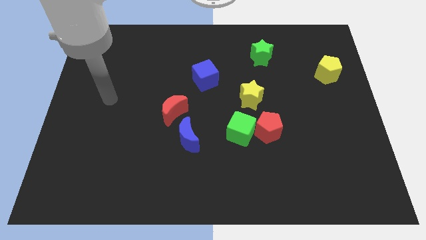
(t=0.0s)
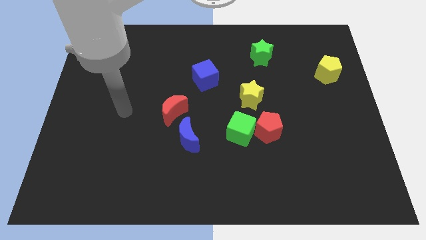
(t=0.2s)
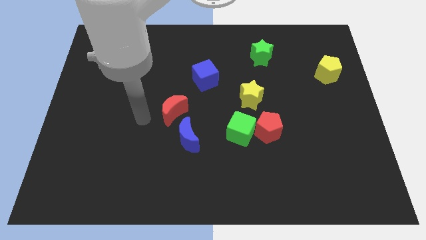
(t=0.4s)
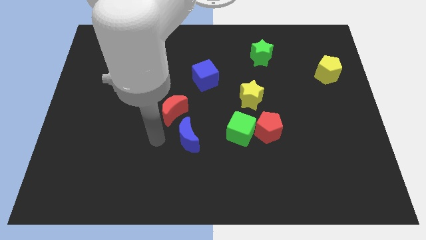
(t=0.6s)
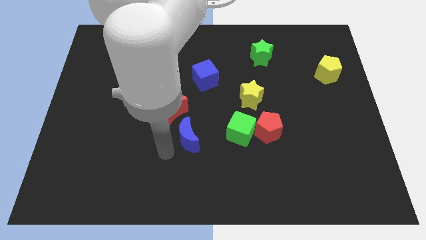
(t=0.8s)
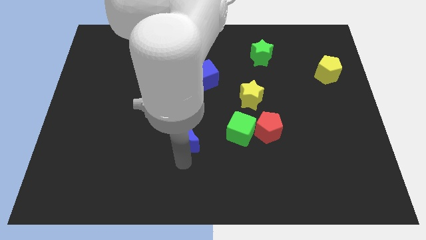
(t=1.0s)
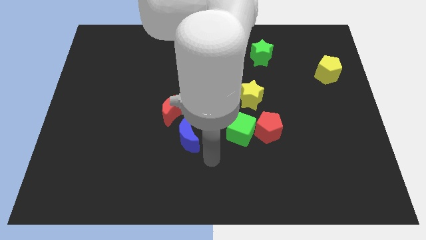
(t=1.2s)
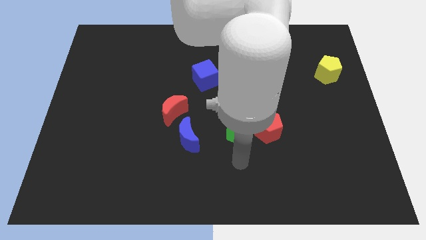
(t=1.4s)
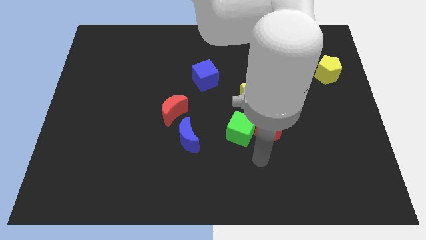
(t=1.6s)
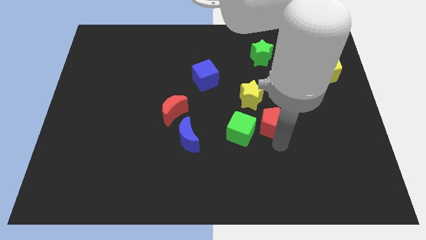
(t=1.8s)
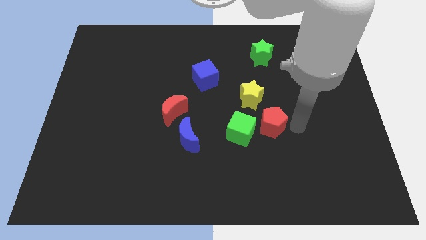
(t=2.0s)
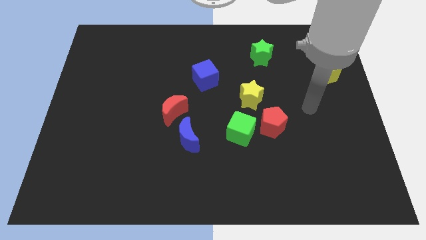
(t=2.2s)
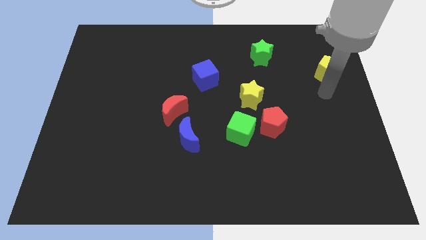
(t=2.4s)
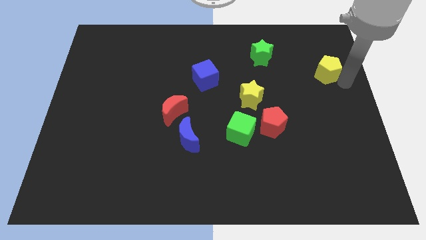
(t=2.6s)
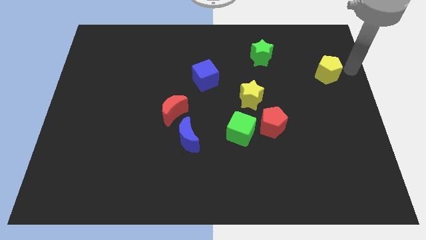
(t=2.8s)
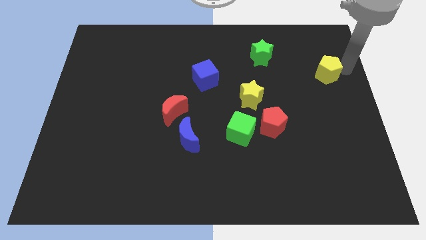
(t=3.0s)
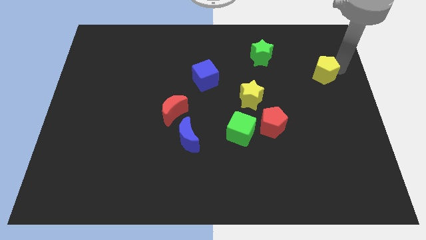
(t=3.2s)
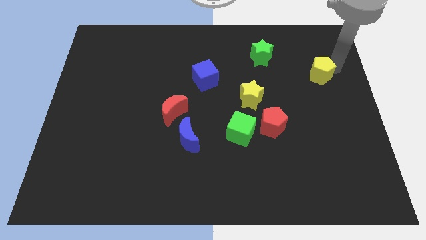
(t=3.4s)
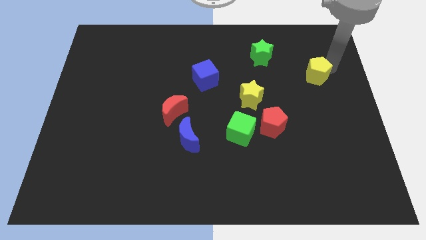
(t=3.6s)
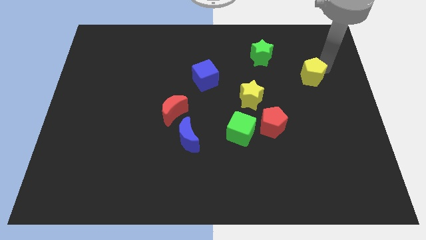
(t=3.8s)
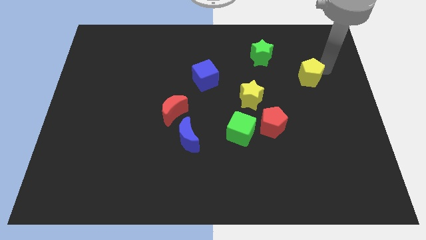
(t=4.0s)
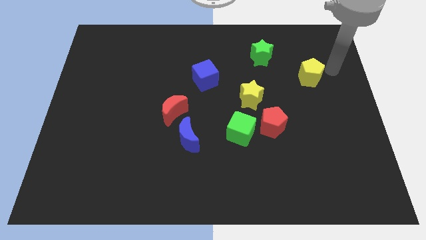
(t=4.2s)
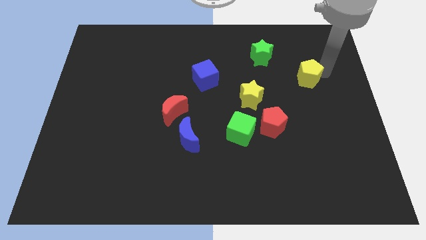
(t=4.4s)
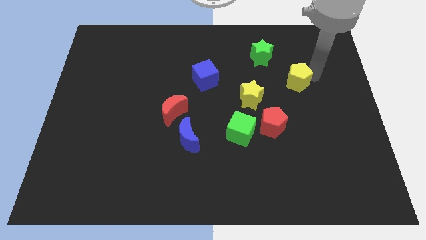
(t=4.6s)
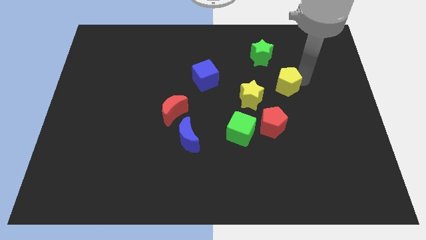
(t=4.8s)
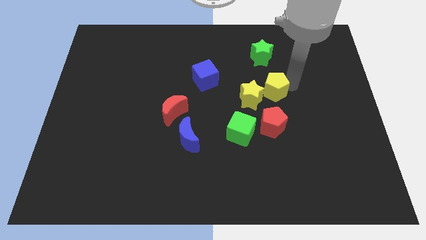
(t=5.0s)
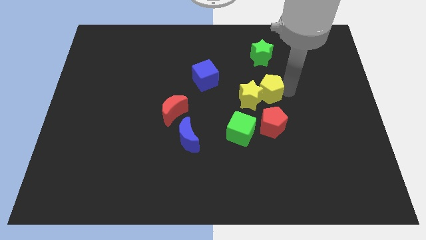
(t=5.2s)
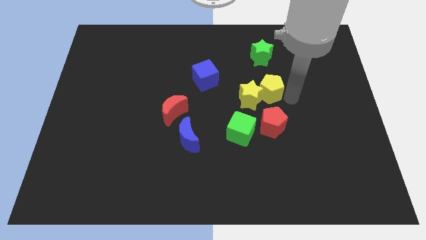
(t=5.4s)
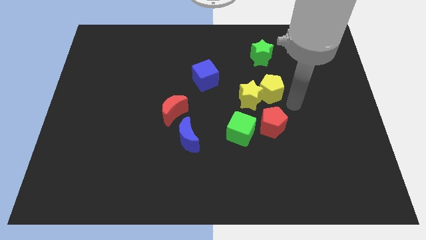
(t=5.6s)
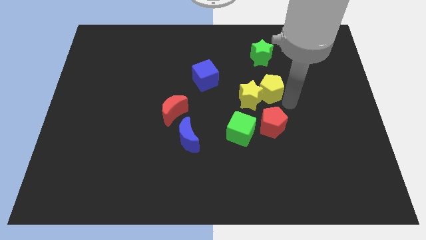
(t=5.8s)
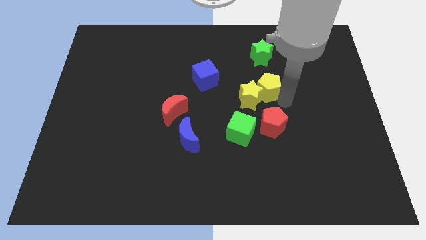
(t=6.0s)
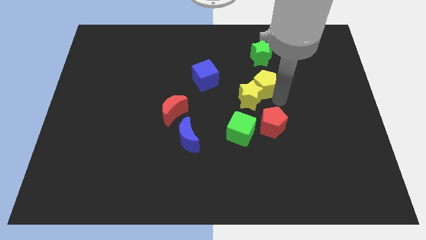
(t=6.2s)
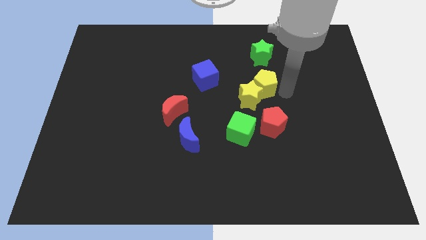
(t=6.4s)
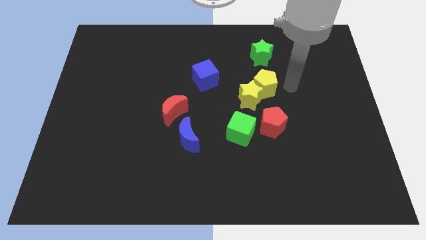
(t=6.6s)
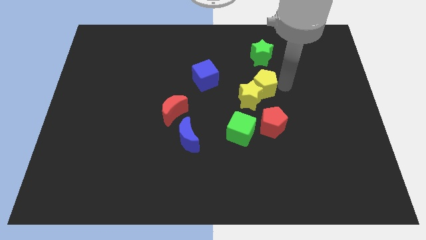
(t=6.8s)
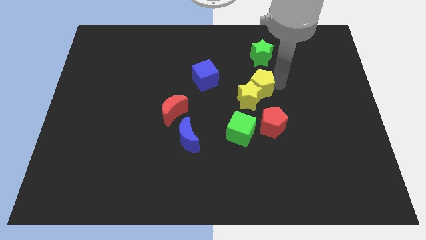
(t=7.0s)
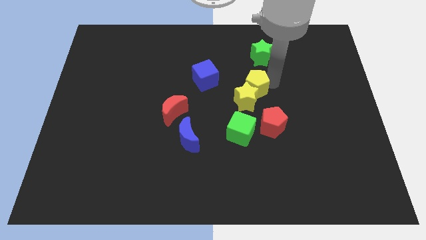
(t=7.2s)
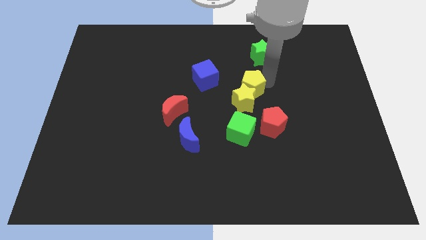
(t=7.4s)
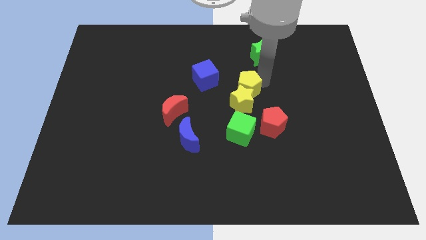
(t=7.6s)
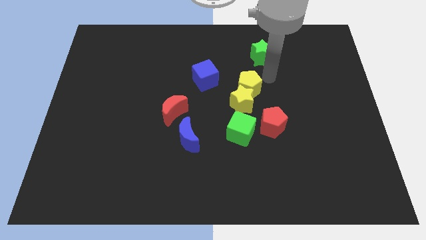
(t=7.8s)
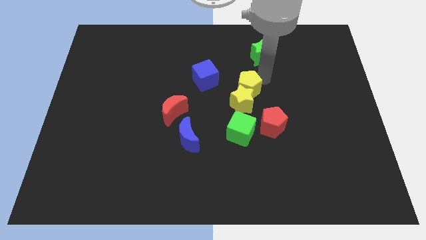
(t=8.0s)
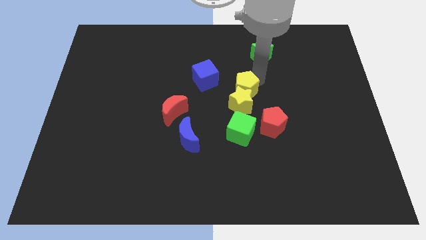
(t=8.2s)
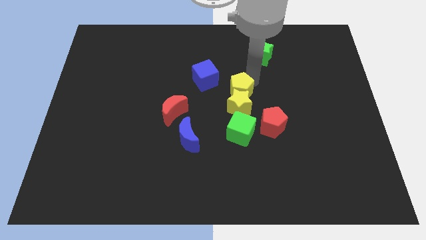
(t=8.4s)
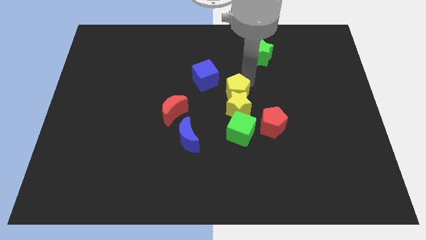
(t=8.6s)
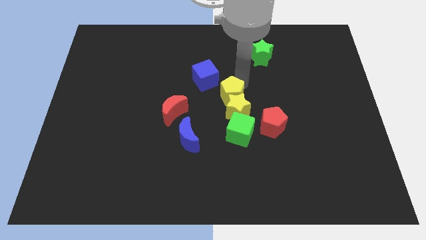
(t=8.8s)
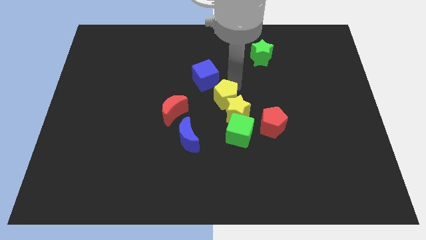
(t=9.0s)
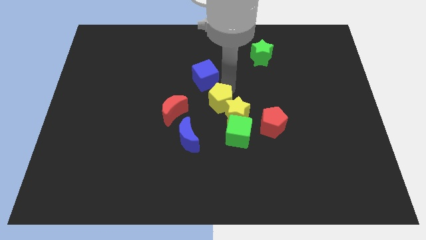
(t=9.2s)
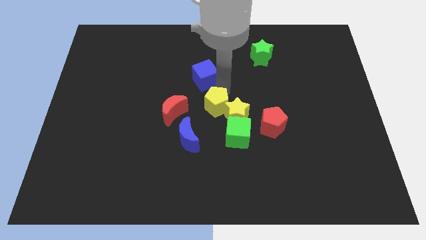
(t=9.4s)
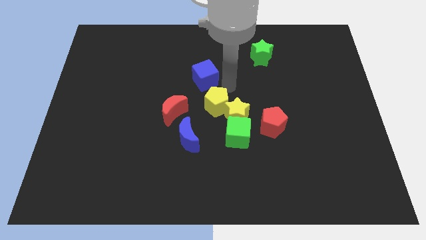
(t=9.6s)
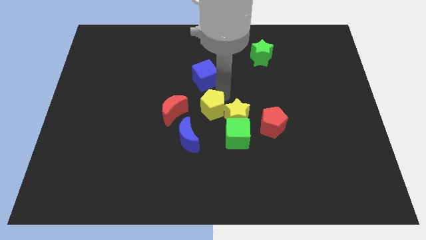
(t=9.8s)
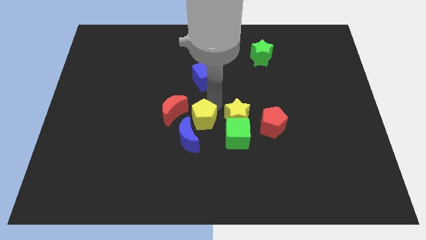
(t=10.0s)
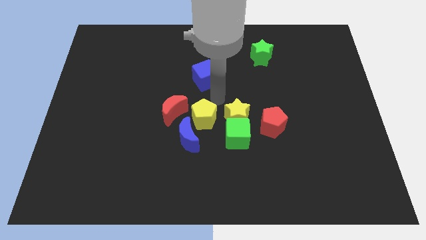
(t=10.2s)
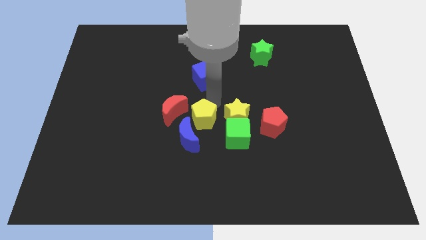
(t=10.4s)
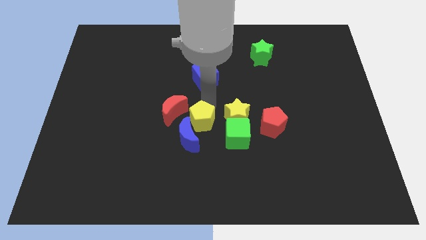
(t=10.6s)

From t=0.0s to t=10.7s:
push the yellow pentagon close to the blue moon

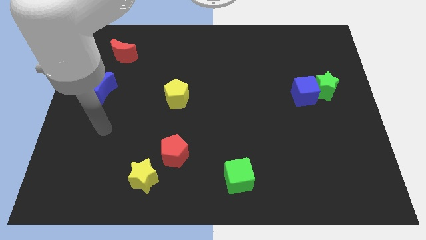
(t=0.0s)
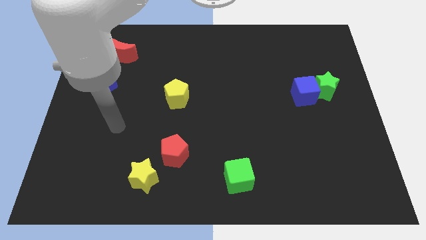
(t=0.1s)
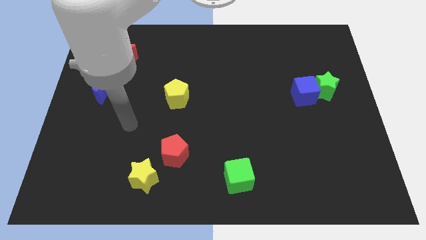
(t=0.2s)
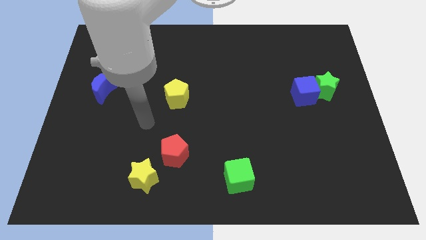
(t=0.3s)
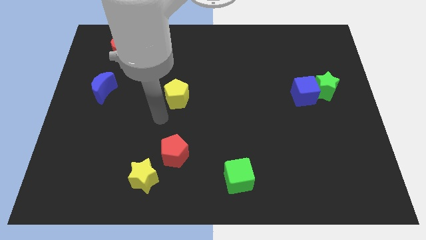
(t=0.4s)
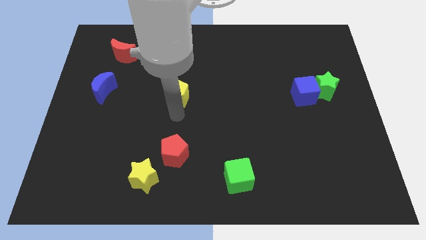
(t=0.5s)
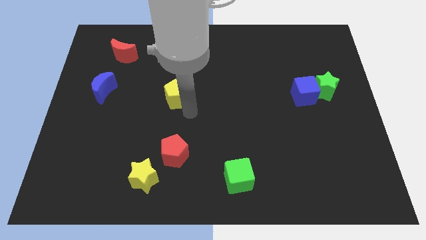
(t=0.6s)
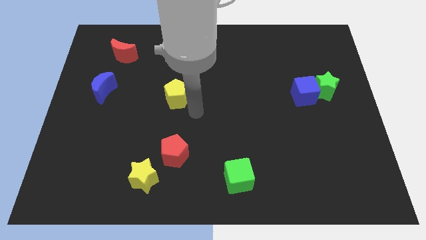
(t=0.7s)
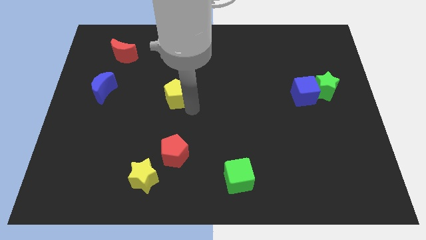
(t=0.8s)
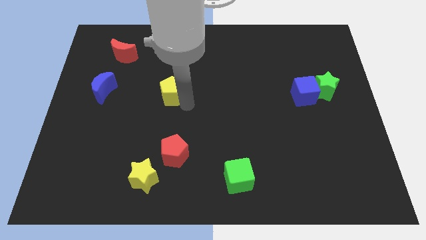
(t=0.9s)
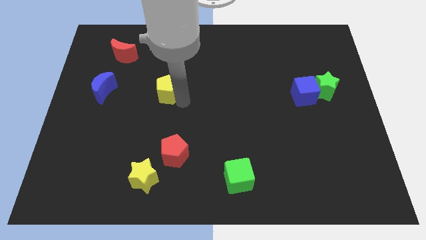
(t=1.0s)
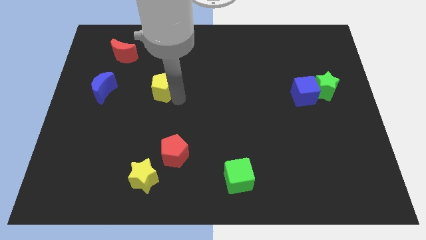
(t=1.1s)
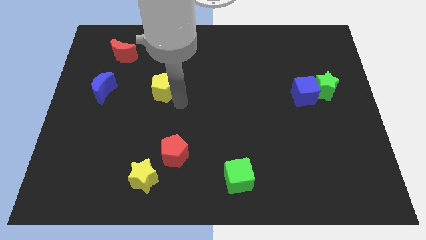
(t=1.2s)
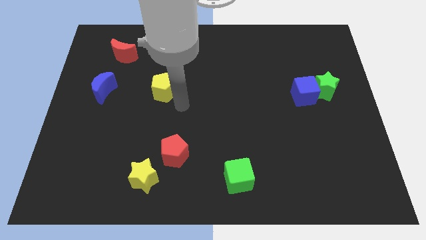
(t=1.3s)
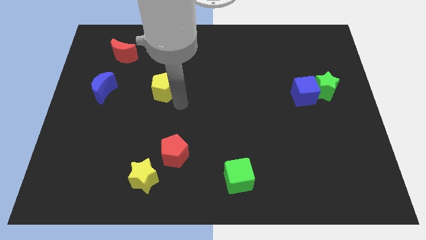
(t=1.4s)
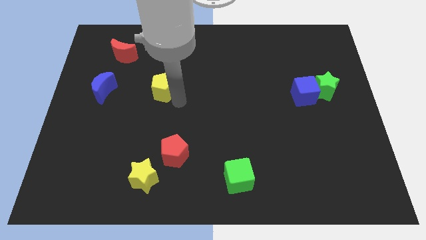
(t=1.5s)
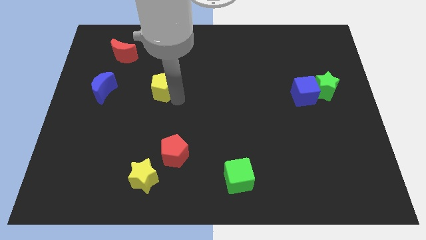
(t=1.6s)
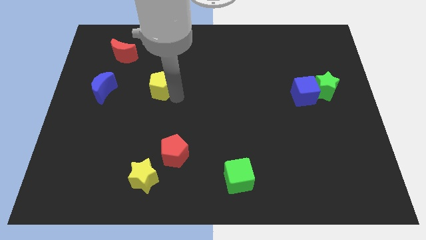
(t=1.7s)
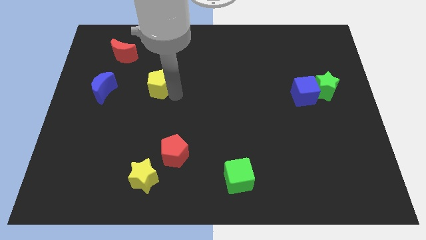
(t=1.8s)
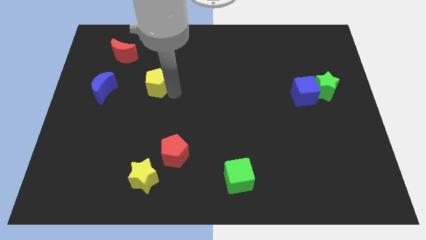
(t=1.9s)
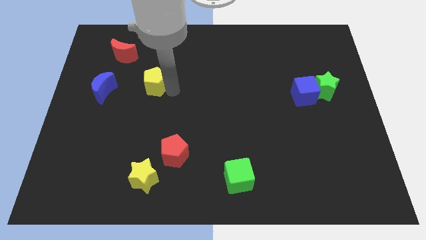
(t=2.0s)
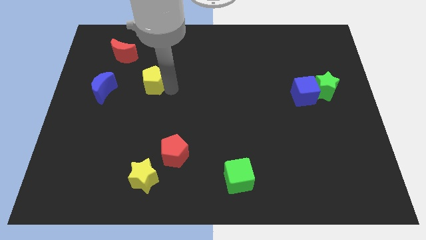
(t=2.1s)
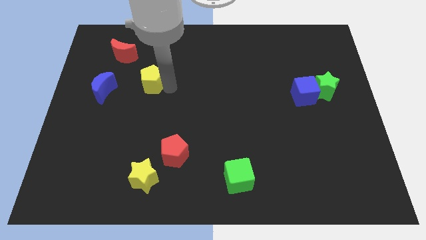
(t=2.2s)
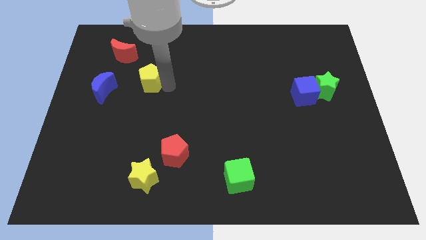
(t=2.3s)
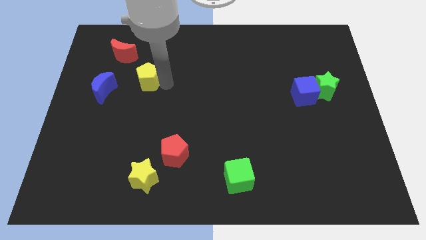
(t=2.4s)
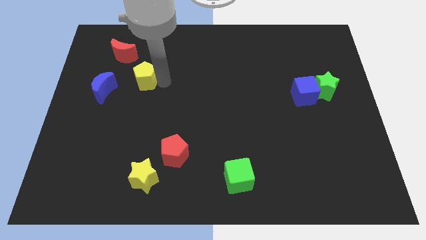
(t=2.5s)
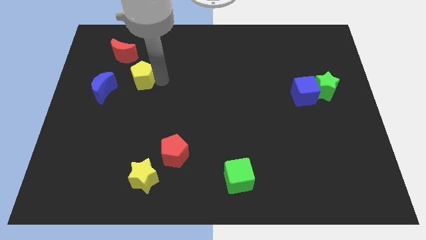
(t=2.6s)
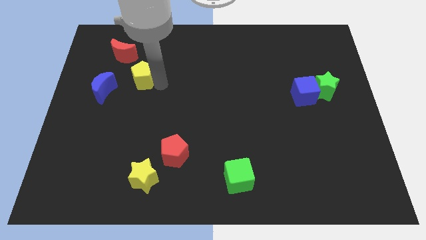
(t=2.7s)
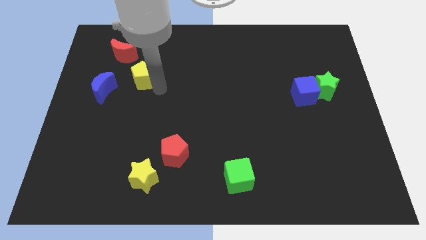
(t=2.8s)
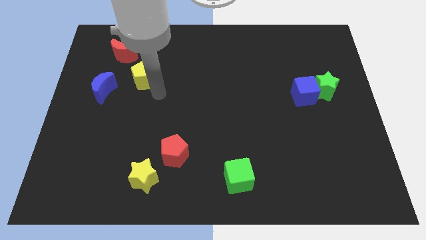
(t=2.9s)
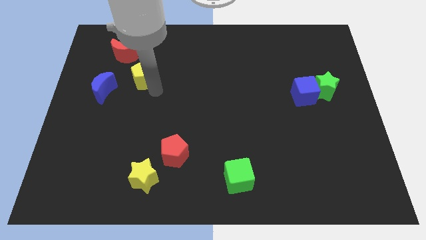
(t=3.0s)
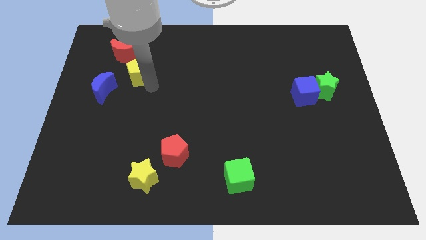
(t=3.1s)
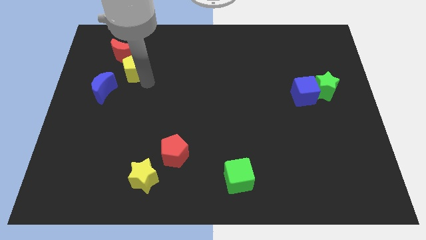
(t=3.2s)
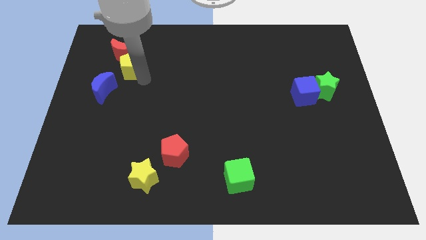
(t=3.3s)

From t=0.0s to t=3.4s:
move the yellow pentagon next to the red moon
